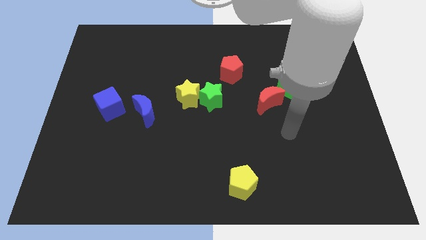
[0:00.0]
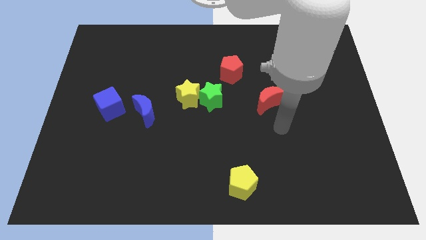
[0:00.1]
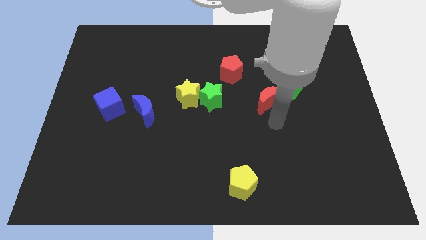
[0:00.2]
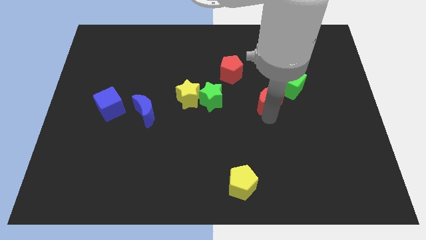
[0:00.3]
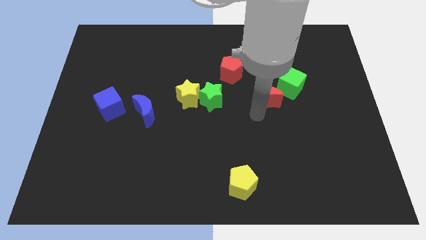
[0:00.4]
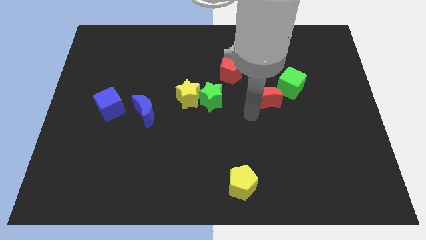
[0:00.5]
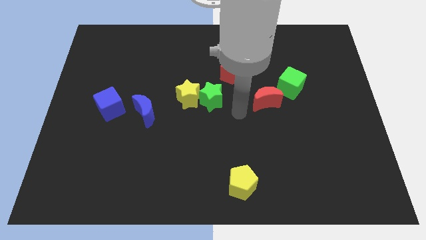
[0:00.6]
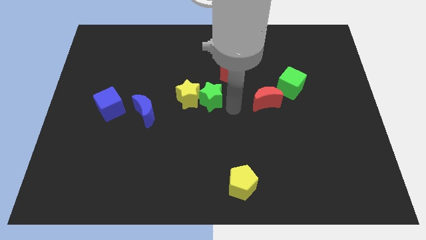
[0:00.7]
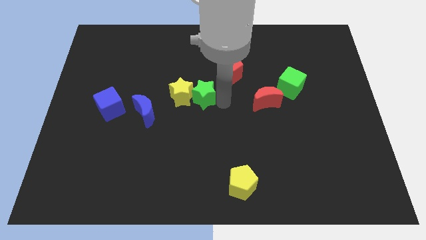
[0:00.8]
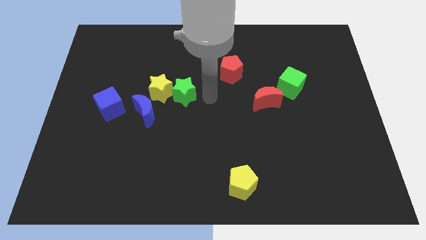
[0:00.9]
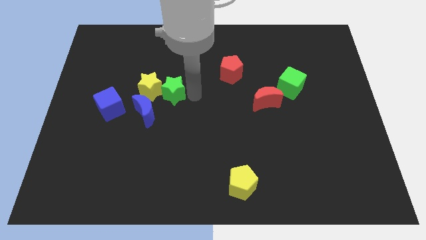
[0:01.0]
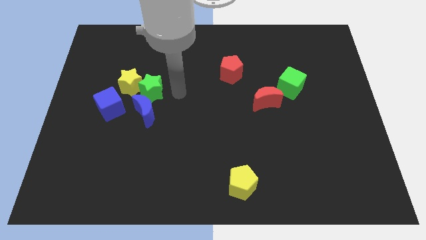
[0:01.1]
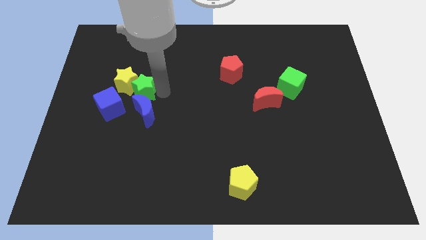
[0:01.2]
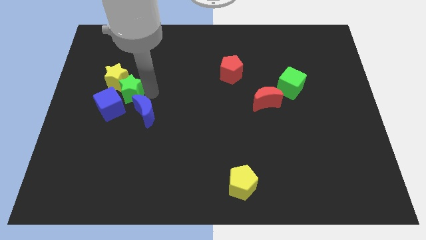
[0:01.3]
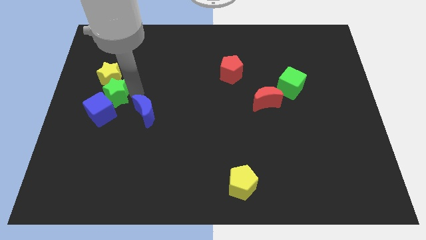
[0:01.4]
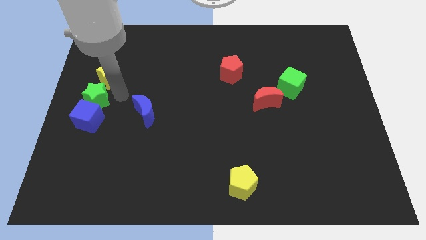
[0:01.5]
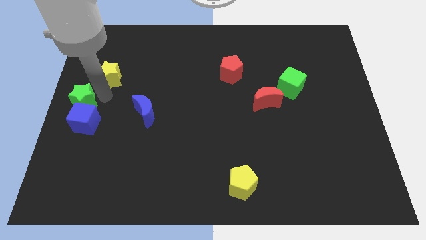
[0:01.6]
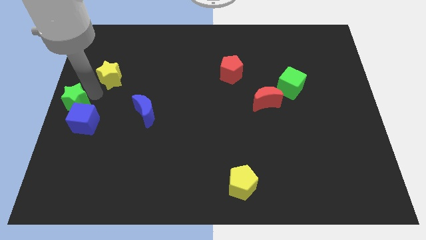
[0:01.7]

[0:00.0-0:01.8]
pull the yellow star apart from the green star

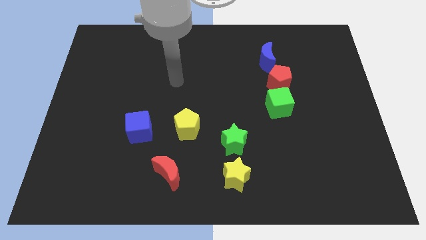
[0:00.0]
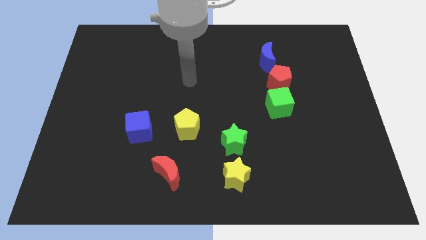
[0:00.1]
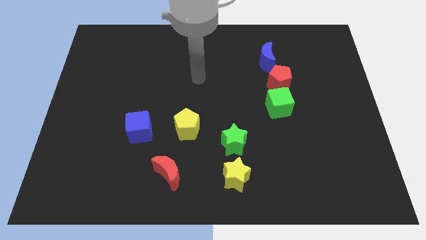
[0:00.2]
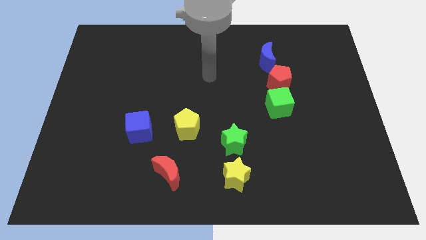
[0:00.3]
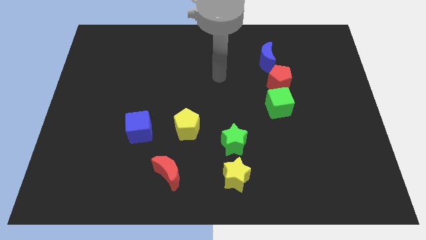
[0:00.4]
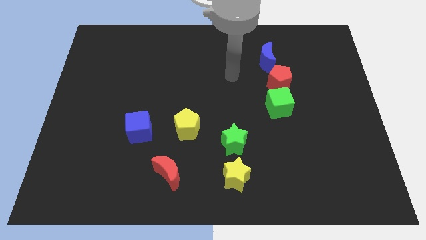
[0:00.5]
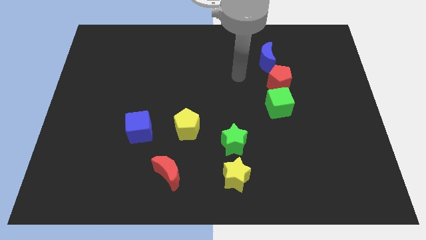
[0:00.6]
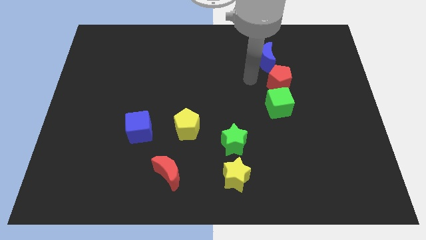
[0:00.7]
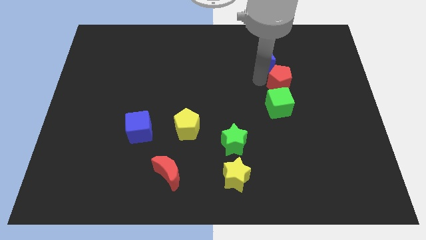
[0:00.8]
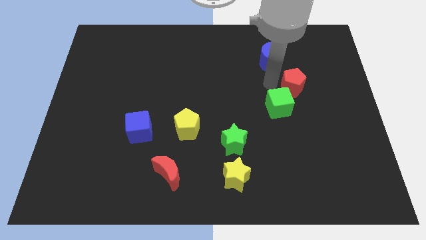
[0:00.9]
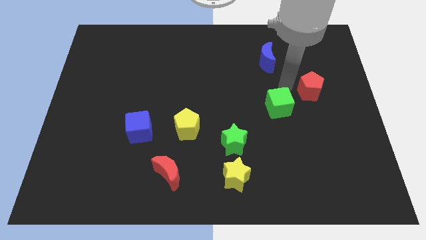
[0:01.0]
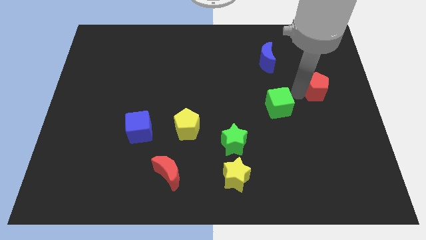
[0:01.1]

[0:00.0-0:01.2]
pull the green cube apart from the red pentagon

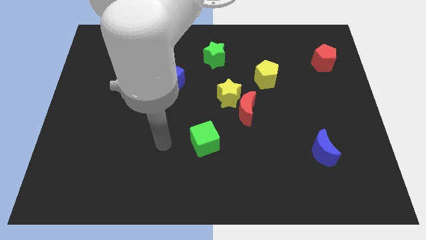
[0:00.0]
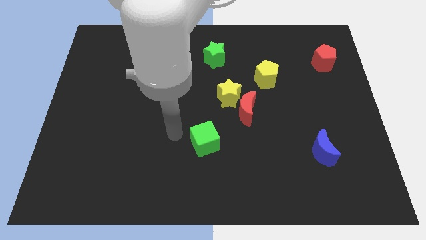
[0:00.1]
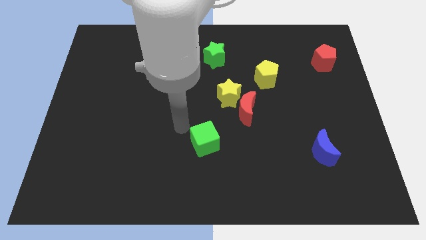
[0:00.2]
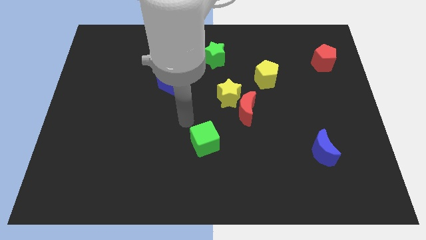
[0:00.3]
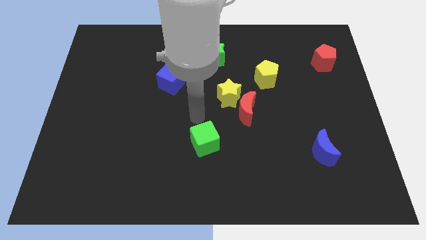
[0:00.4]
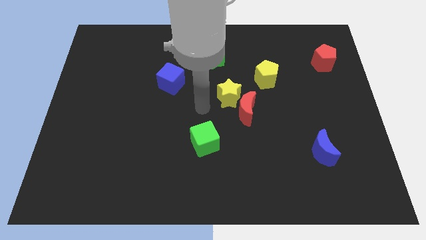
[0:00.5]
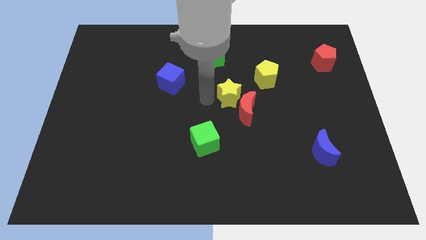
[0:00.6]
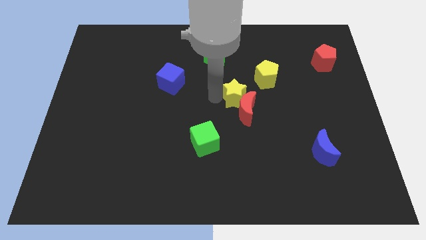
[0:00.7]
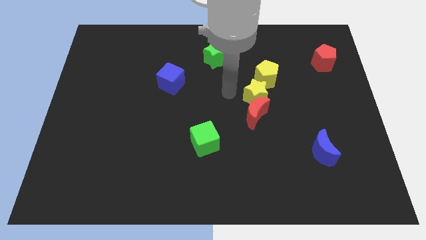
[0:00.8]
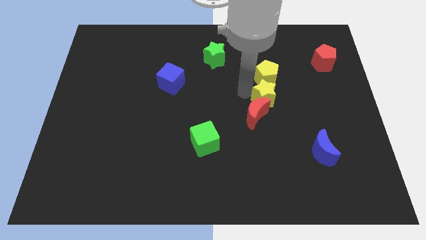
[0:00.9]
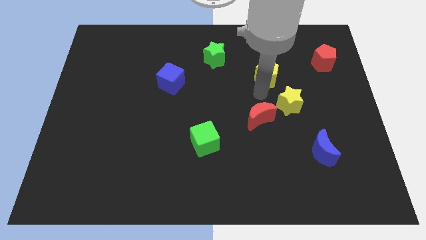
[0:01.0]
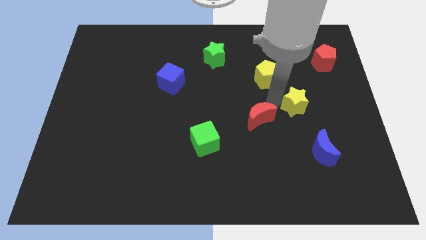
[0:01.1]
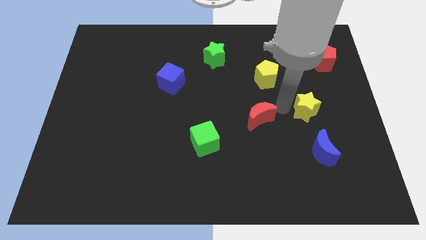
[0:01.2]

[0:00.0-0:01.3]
pull the red moon apart from the yellow star

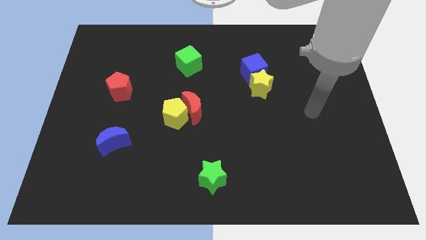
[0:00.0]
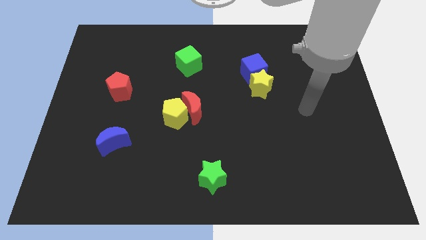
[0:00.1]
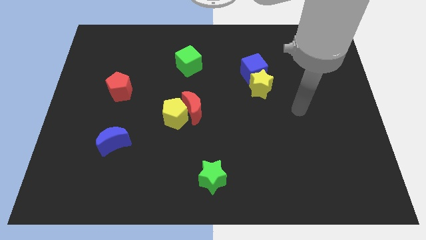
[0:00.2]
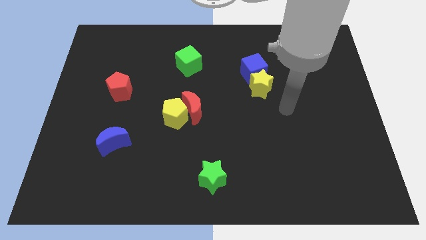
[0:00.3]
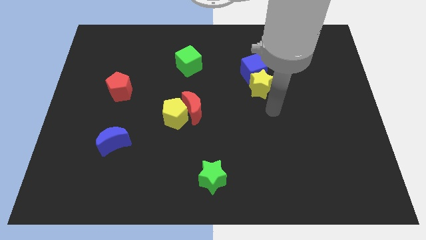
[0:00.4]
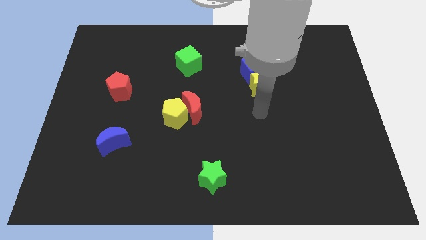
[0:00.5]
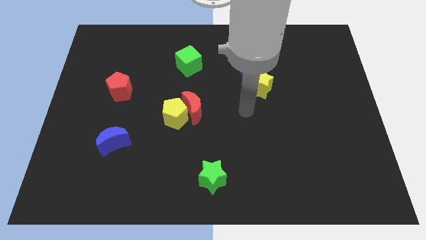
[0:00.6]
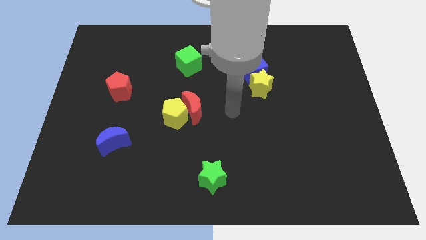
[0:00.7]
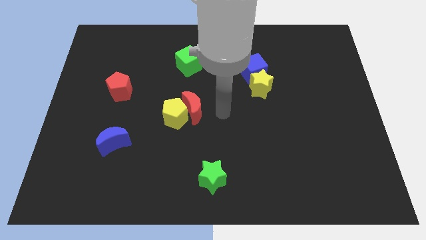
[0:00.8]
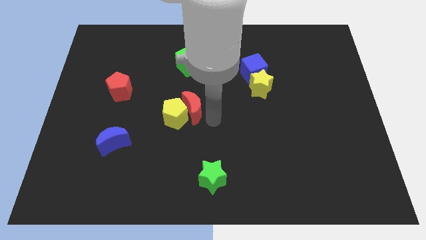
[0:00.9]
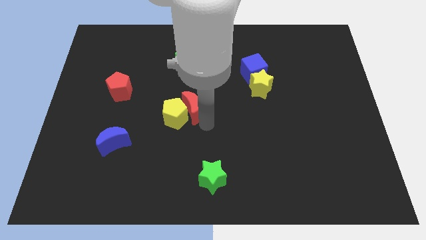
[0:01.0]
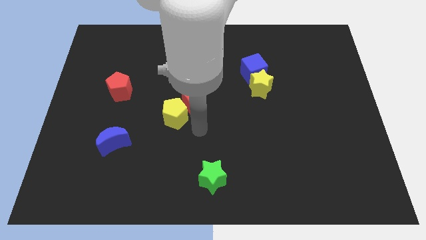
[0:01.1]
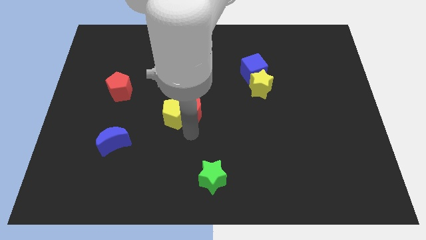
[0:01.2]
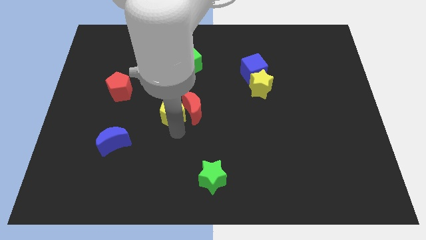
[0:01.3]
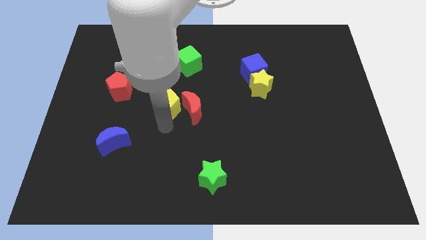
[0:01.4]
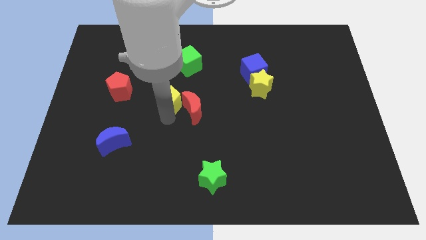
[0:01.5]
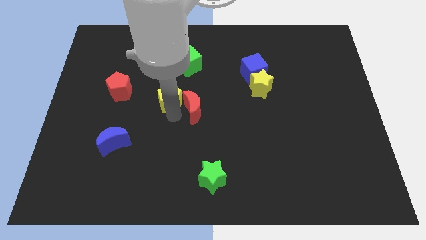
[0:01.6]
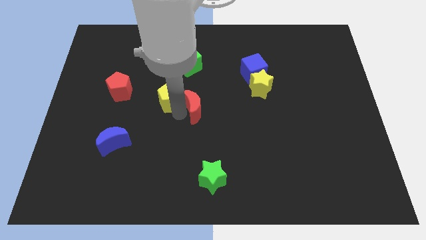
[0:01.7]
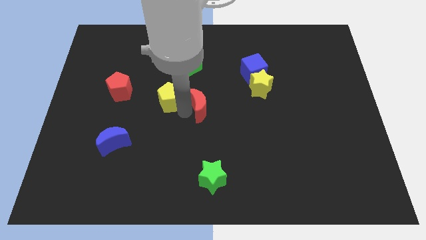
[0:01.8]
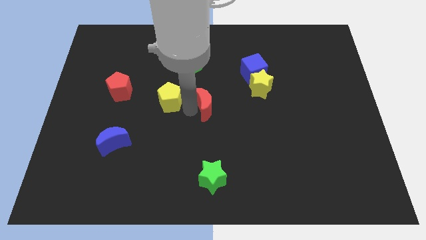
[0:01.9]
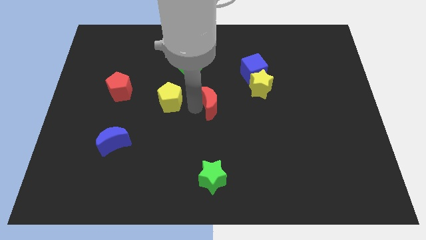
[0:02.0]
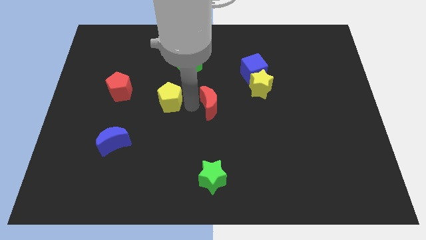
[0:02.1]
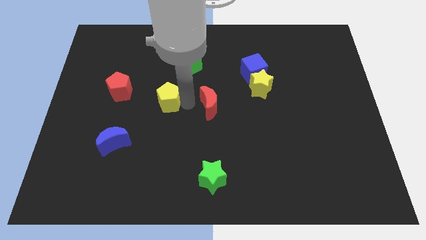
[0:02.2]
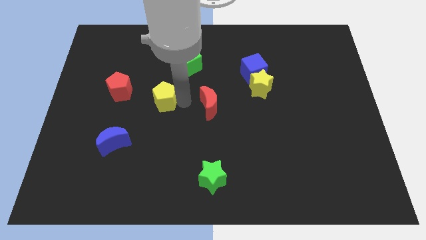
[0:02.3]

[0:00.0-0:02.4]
move the red moon away from the yellow pentagon

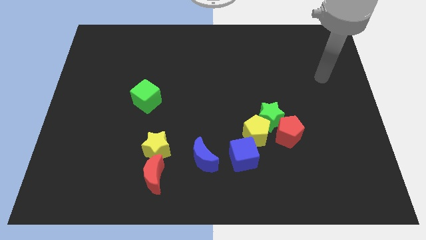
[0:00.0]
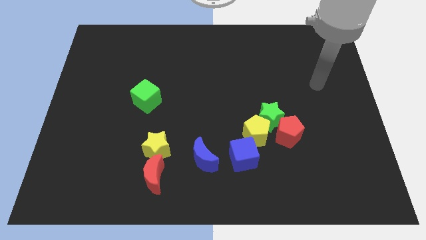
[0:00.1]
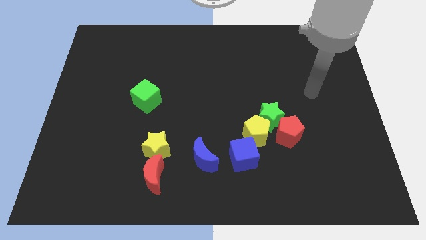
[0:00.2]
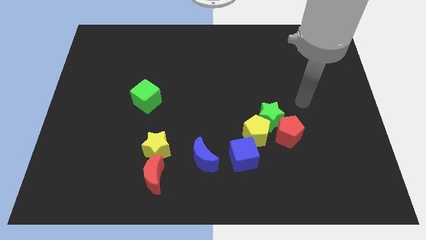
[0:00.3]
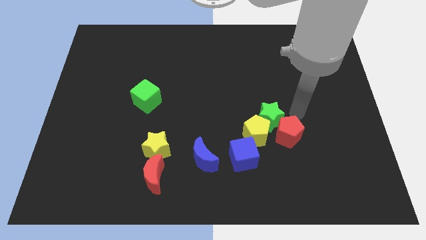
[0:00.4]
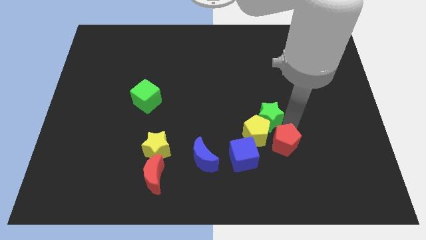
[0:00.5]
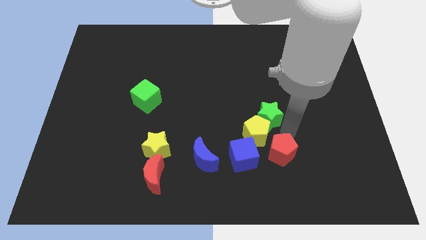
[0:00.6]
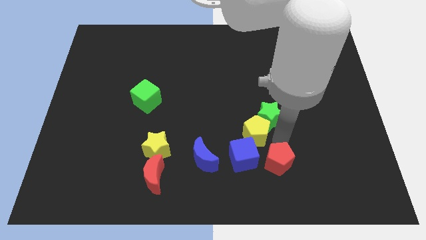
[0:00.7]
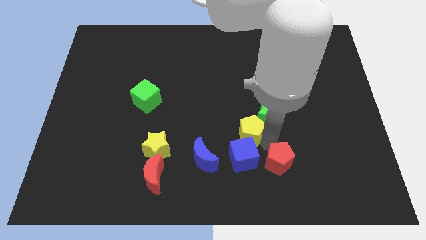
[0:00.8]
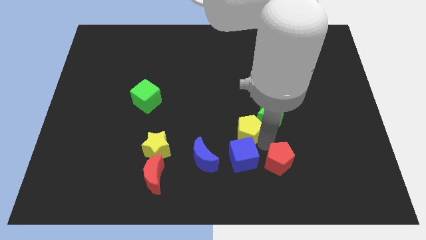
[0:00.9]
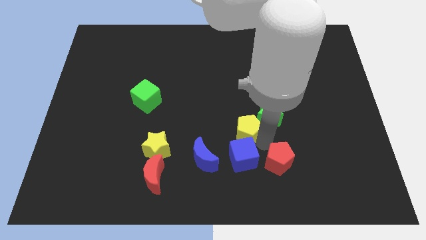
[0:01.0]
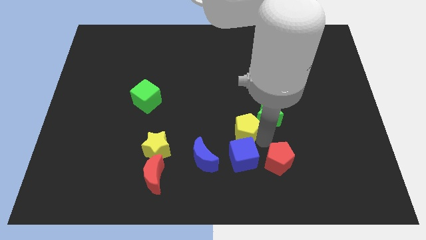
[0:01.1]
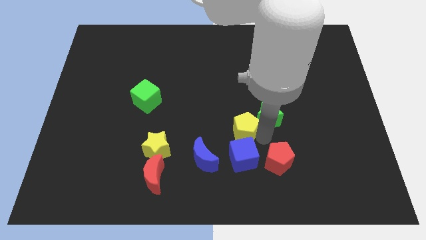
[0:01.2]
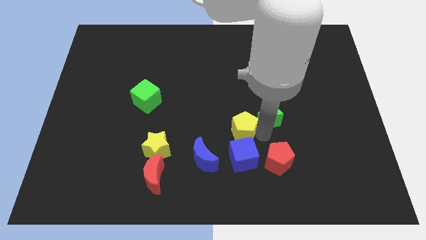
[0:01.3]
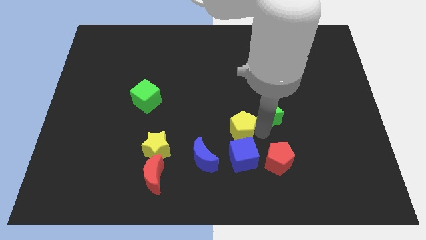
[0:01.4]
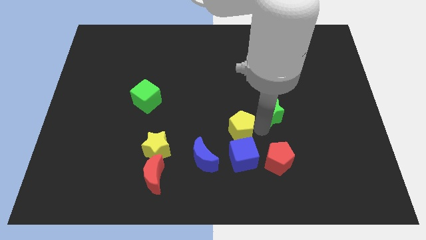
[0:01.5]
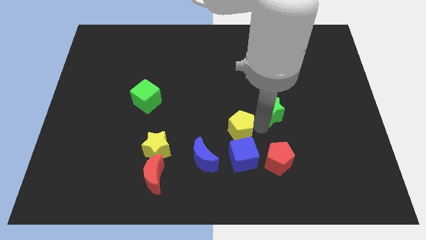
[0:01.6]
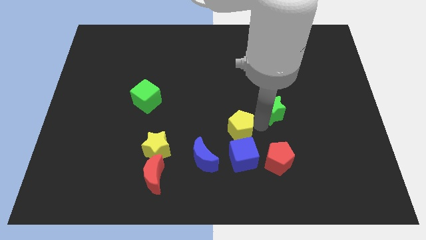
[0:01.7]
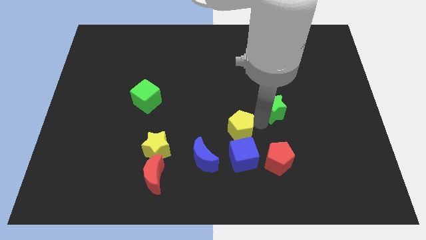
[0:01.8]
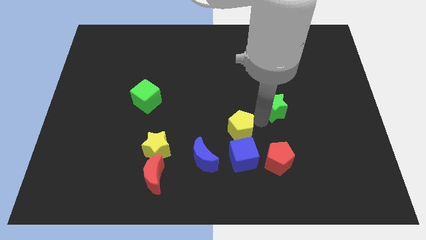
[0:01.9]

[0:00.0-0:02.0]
pull the green star apart from the yellow pentagon and red pentagon

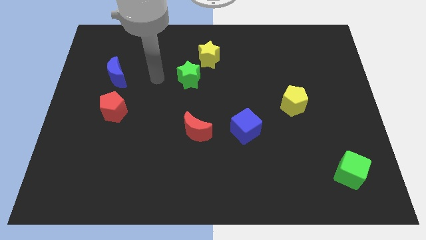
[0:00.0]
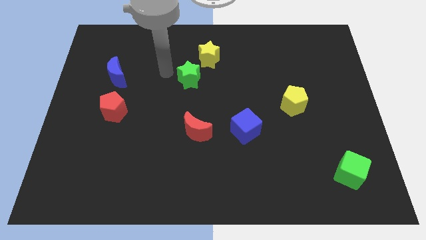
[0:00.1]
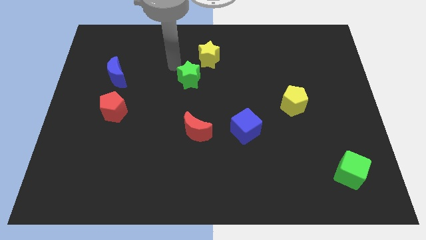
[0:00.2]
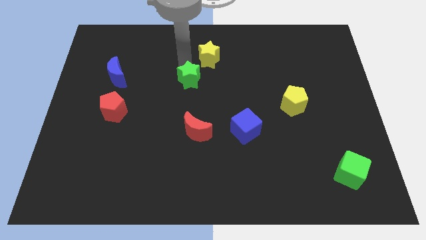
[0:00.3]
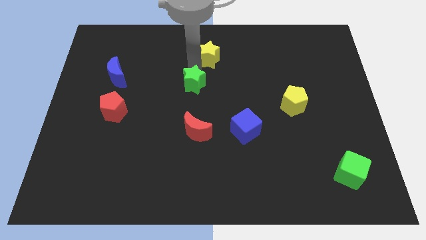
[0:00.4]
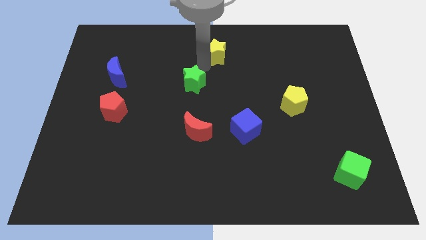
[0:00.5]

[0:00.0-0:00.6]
pull the green star apart from the yellow star

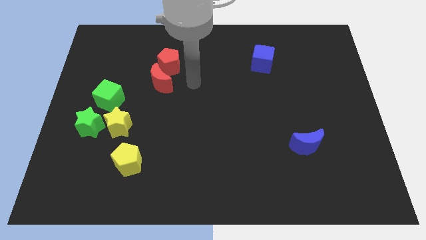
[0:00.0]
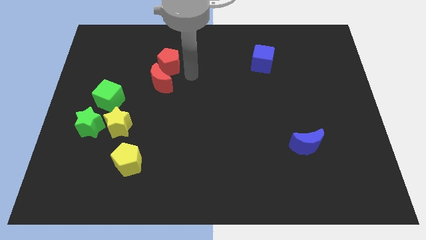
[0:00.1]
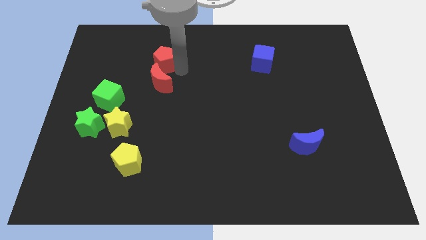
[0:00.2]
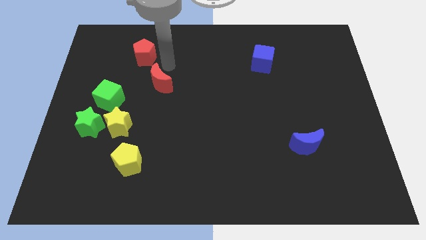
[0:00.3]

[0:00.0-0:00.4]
separate the red moon from the red pentagon
